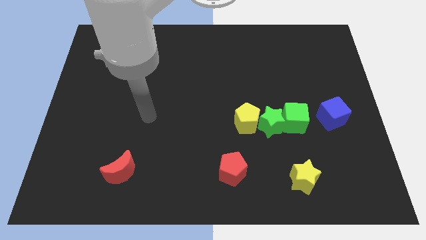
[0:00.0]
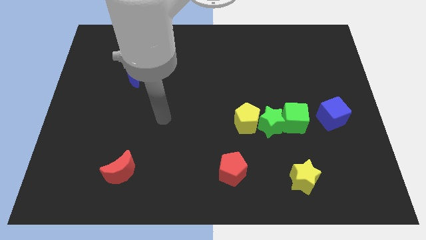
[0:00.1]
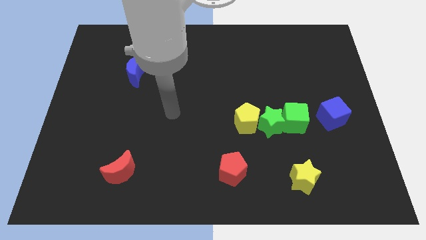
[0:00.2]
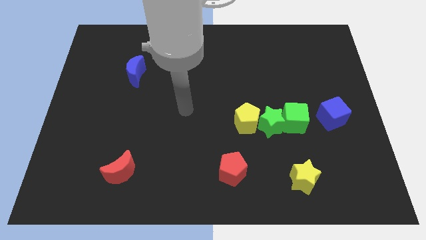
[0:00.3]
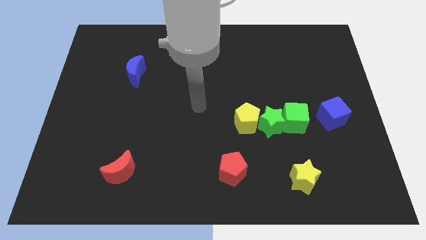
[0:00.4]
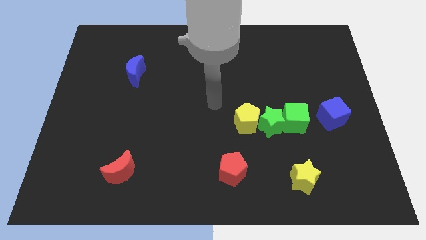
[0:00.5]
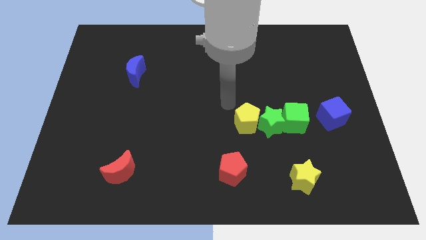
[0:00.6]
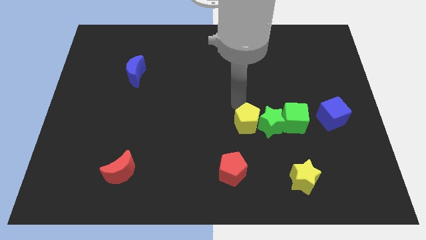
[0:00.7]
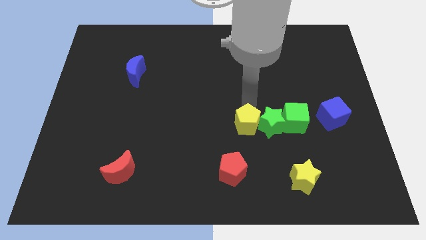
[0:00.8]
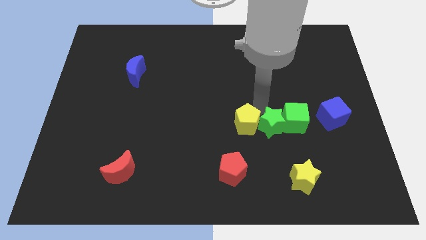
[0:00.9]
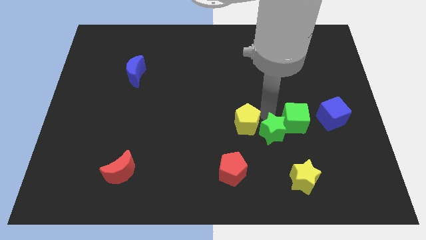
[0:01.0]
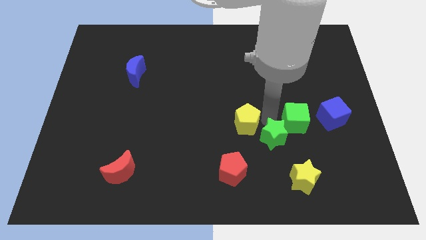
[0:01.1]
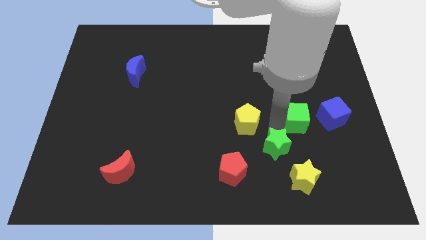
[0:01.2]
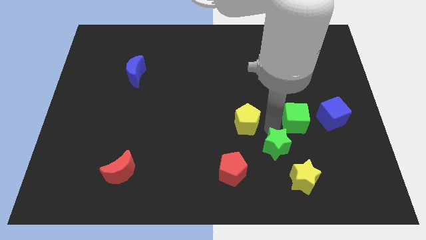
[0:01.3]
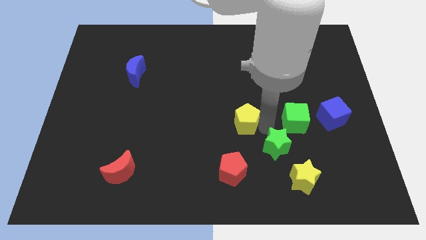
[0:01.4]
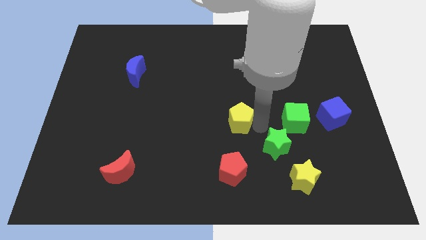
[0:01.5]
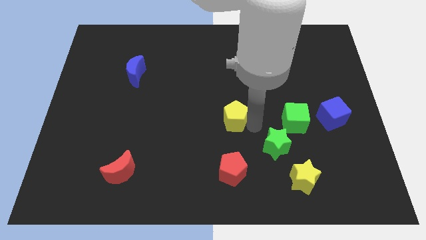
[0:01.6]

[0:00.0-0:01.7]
move the yellow pentagon away from the green star

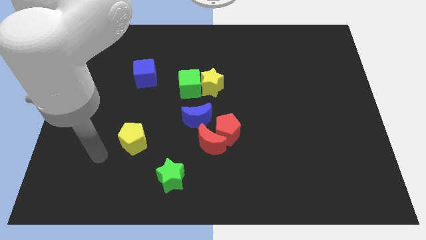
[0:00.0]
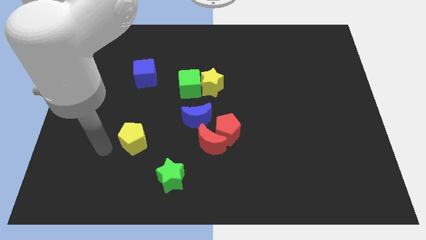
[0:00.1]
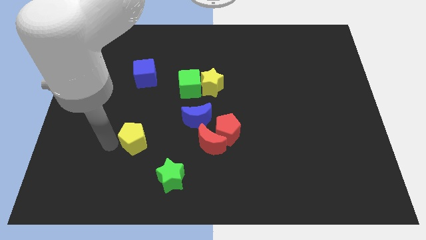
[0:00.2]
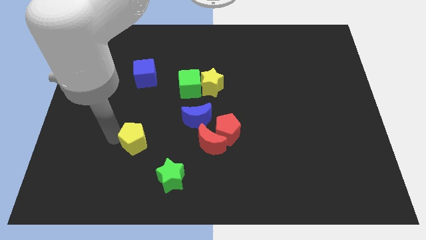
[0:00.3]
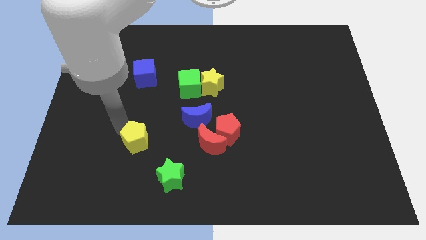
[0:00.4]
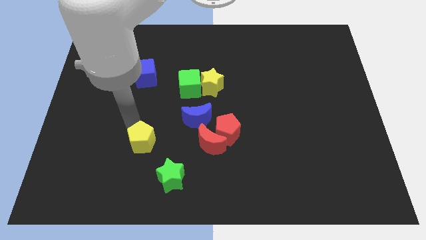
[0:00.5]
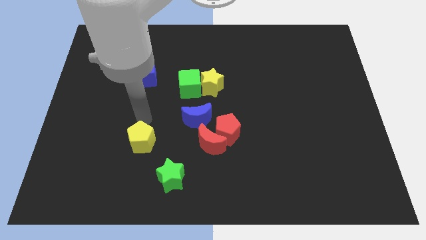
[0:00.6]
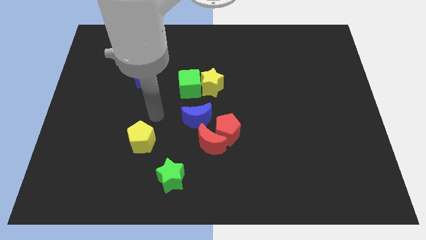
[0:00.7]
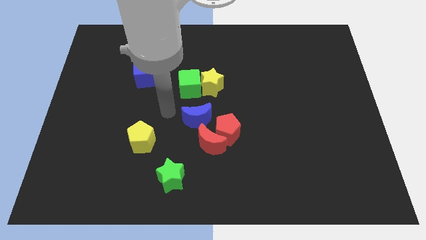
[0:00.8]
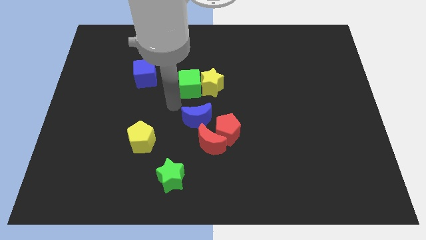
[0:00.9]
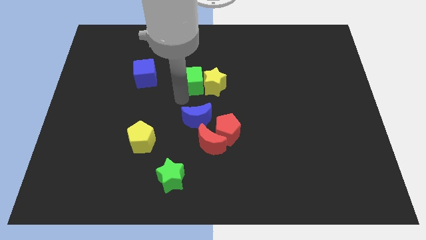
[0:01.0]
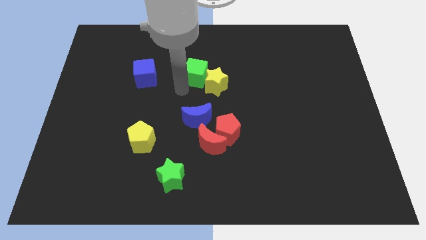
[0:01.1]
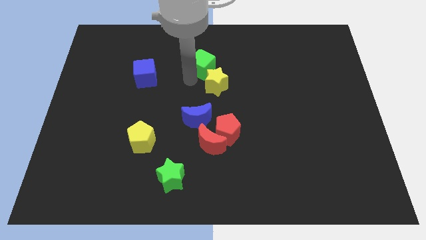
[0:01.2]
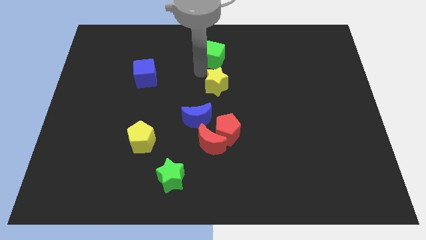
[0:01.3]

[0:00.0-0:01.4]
pull the yellow star apart from the green cube

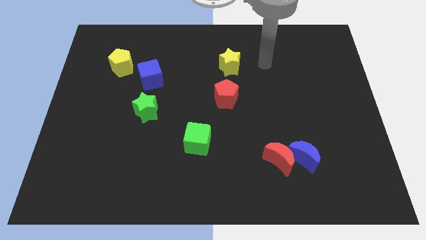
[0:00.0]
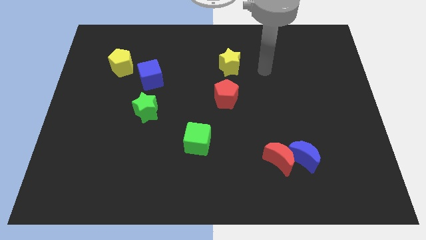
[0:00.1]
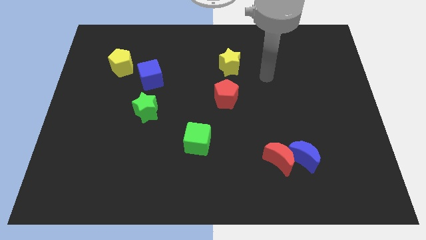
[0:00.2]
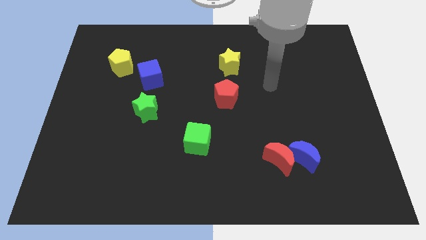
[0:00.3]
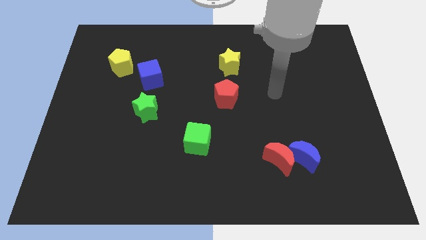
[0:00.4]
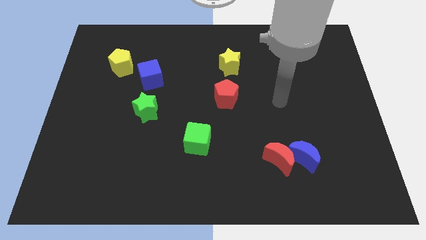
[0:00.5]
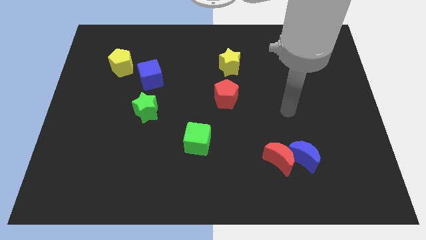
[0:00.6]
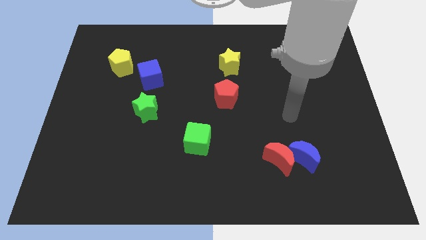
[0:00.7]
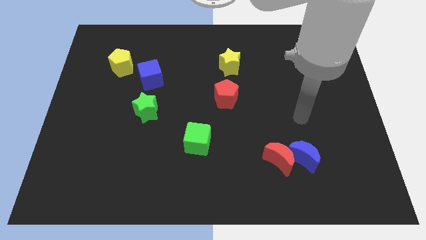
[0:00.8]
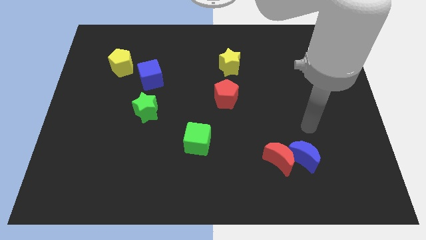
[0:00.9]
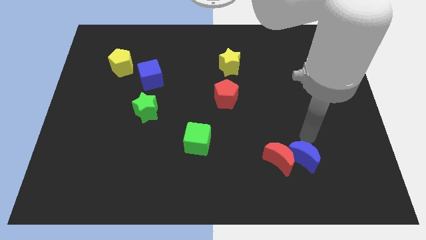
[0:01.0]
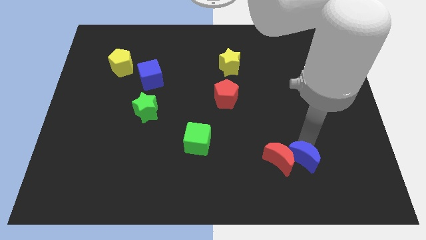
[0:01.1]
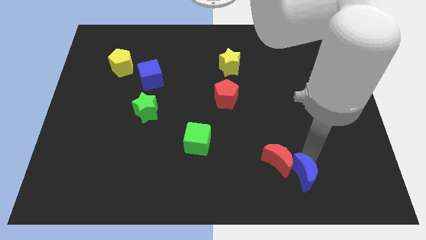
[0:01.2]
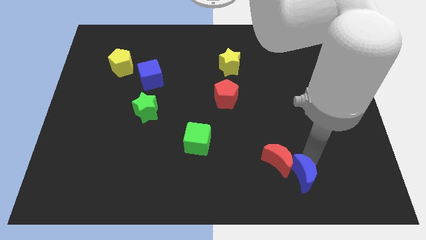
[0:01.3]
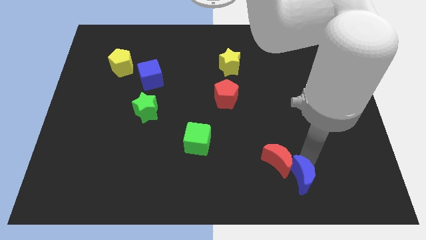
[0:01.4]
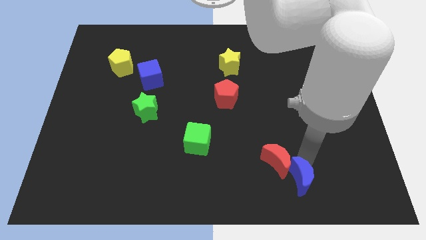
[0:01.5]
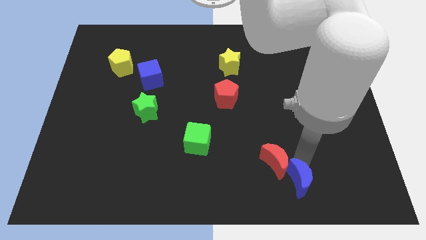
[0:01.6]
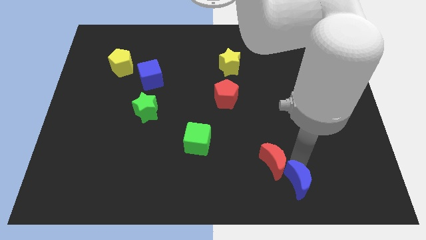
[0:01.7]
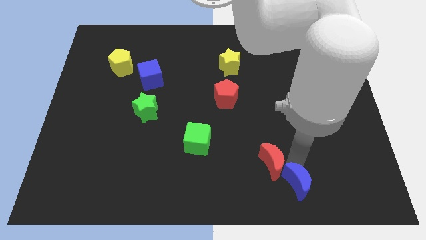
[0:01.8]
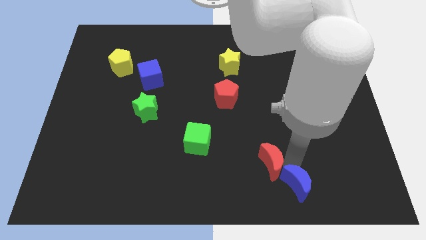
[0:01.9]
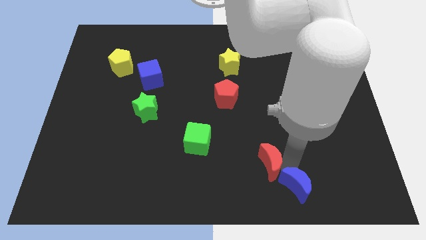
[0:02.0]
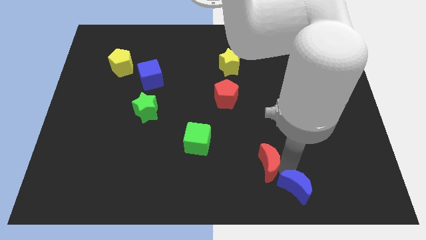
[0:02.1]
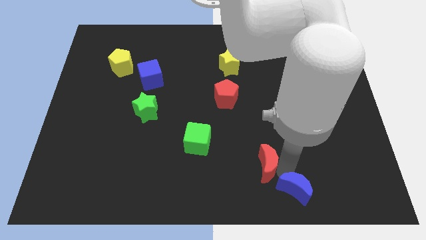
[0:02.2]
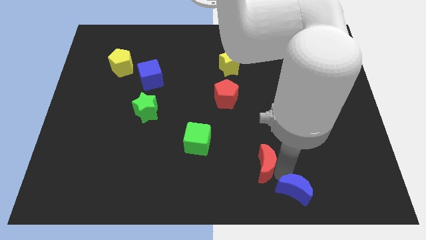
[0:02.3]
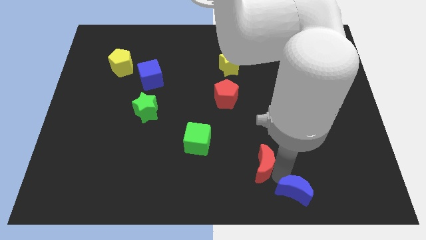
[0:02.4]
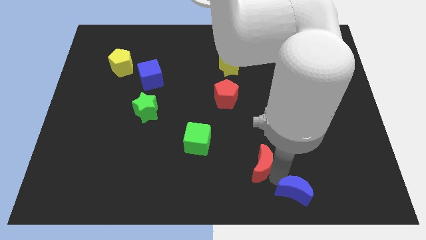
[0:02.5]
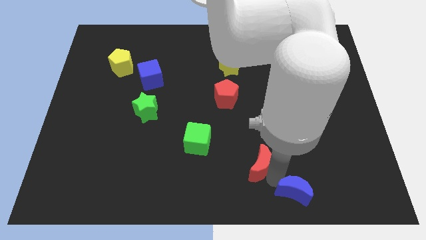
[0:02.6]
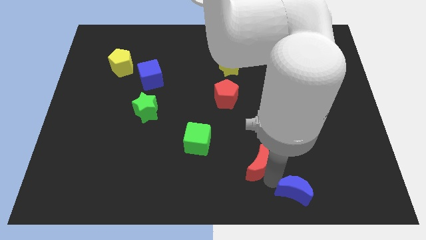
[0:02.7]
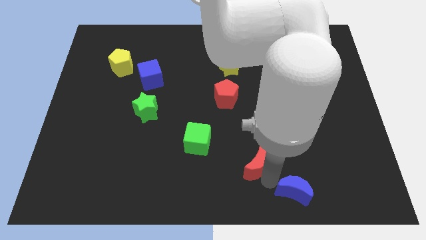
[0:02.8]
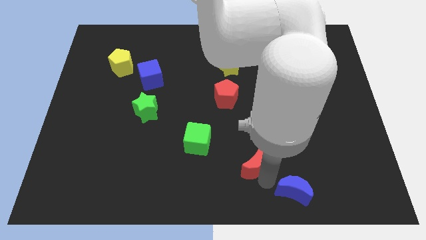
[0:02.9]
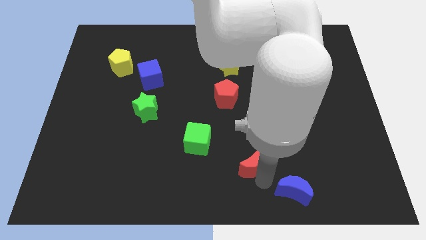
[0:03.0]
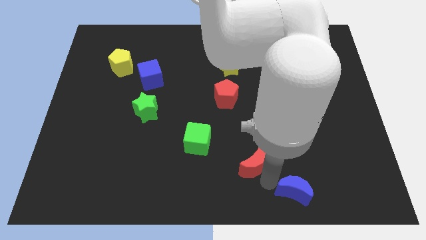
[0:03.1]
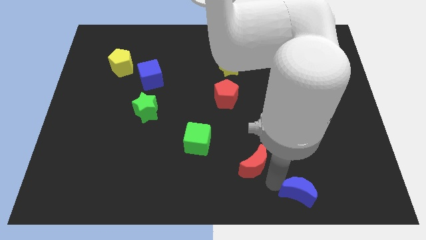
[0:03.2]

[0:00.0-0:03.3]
separate the red moon from the blue moon

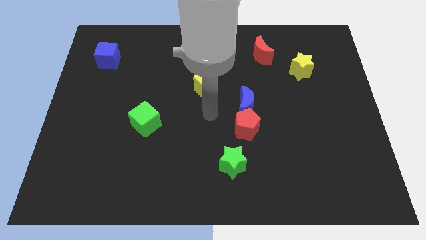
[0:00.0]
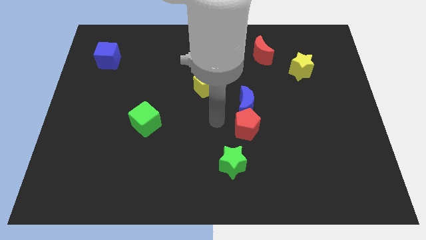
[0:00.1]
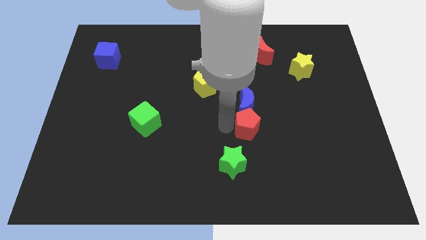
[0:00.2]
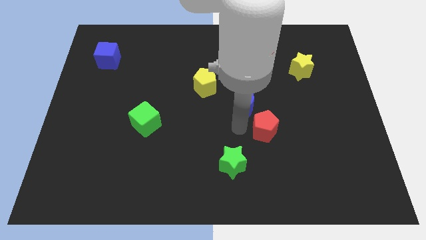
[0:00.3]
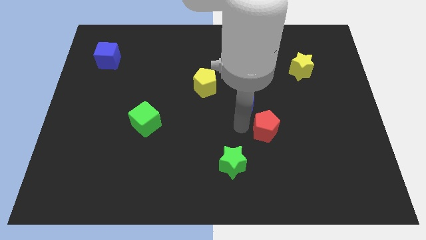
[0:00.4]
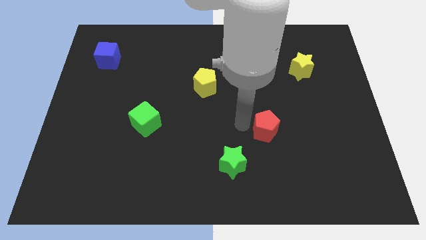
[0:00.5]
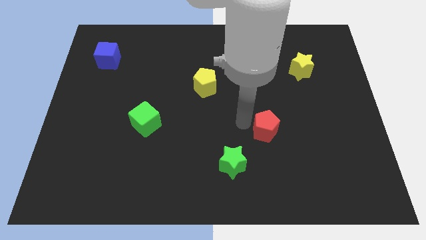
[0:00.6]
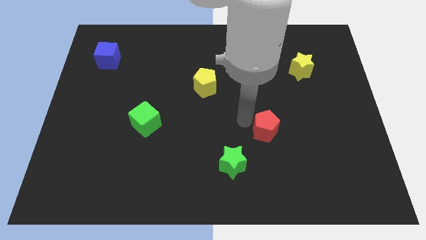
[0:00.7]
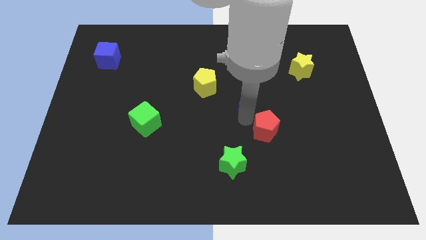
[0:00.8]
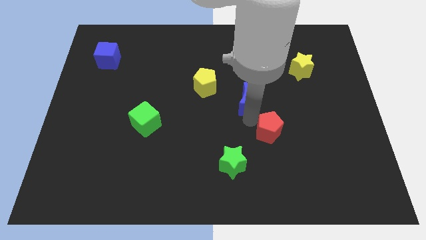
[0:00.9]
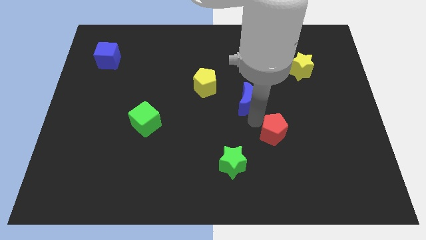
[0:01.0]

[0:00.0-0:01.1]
move the blue moon away from the red pentagon

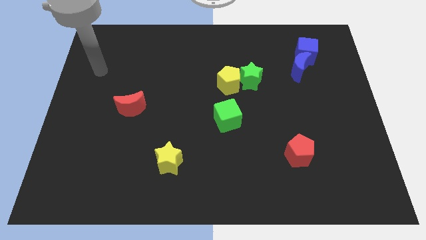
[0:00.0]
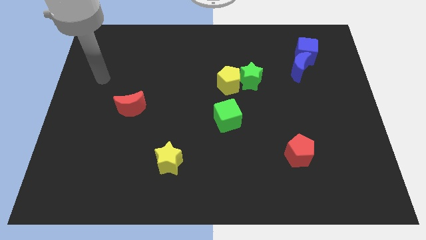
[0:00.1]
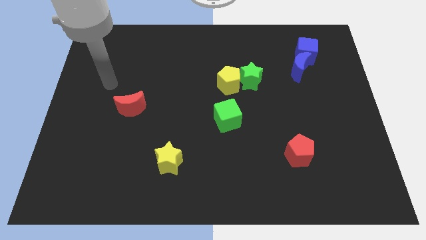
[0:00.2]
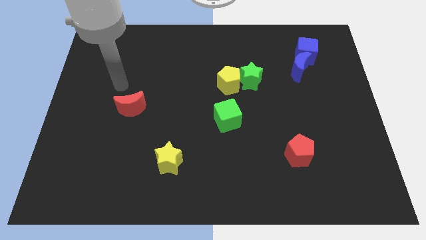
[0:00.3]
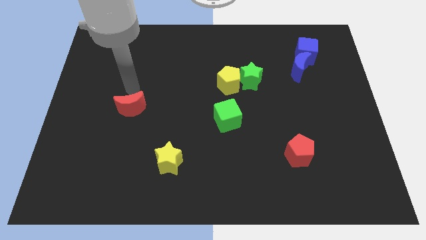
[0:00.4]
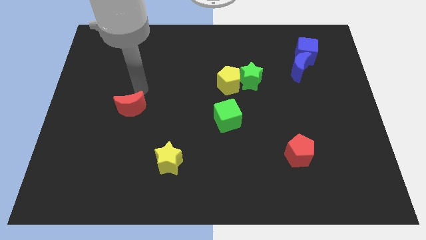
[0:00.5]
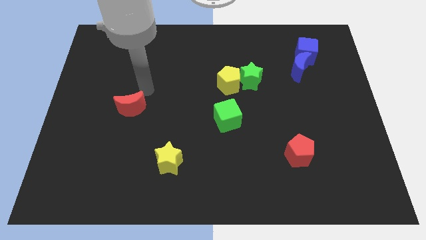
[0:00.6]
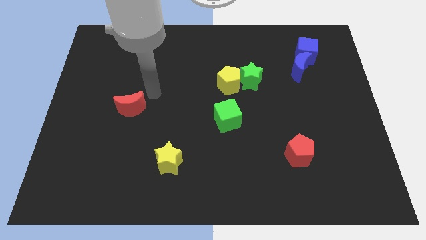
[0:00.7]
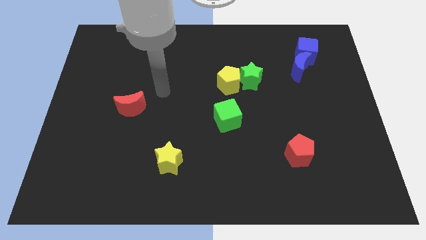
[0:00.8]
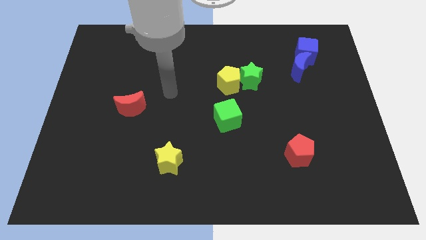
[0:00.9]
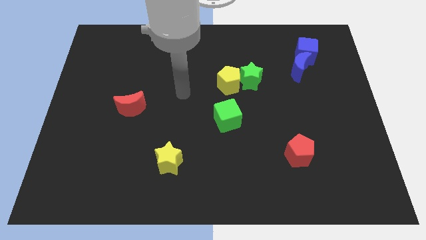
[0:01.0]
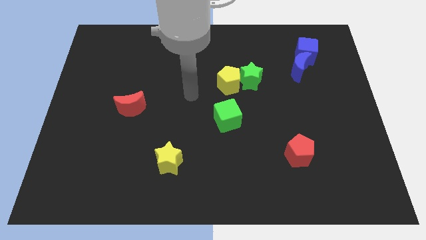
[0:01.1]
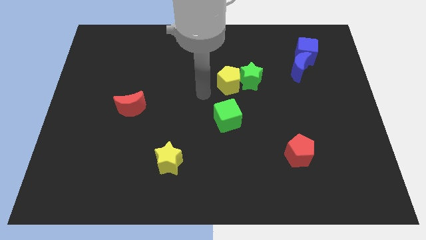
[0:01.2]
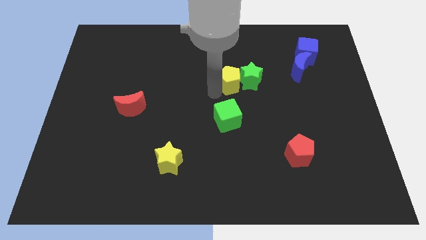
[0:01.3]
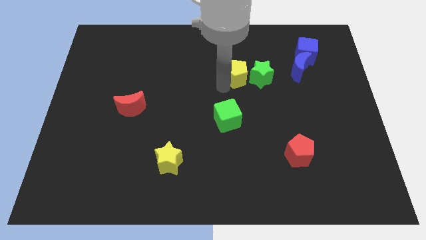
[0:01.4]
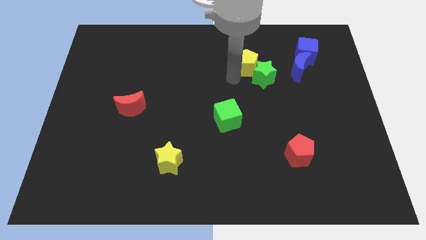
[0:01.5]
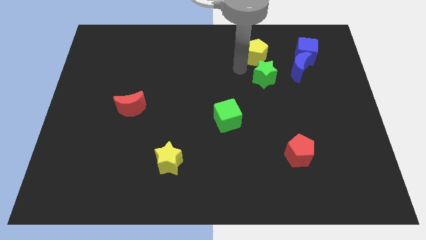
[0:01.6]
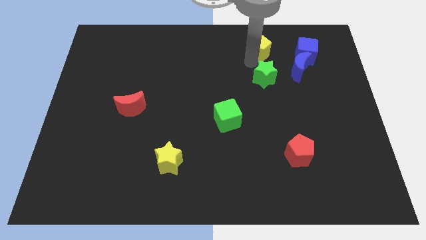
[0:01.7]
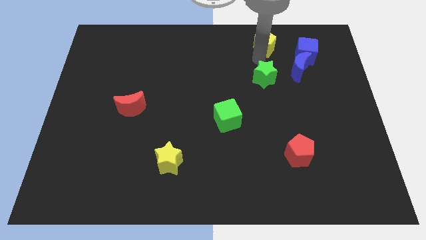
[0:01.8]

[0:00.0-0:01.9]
pull the green star apart from the yellow pentagon
